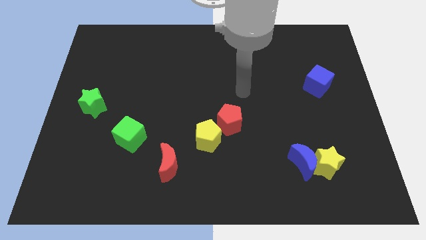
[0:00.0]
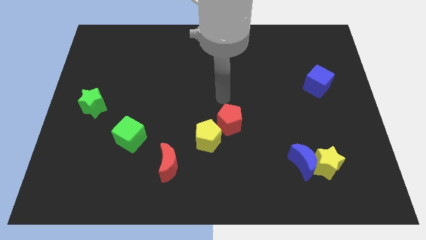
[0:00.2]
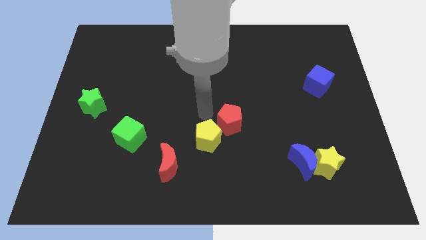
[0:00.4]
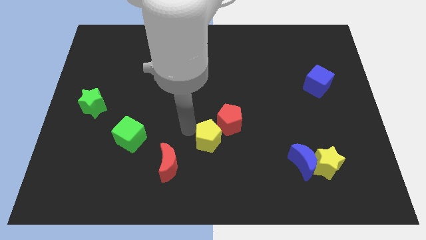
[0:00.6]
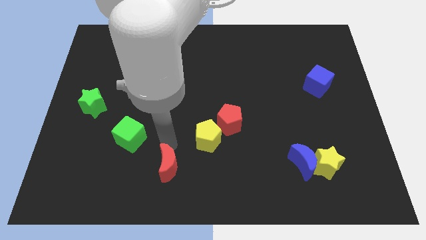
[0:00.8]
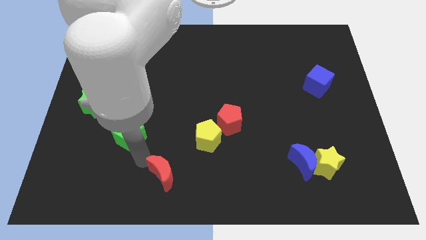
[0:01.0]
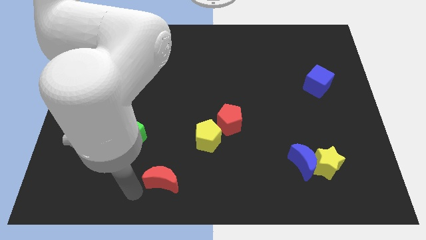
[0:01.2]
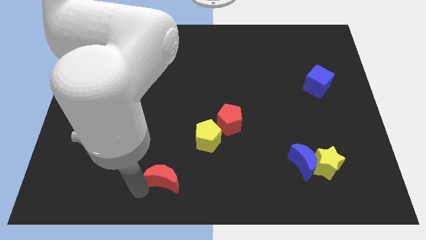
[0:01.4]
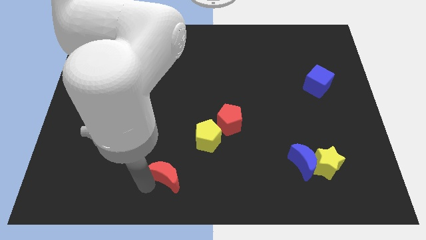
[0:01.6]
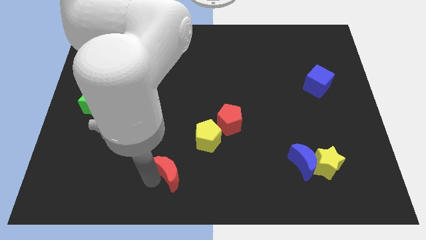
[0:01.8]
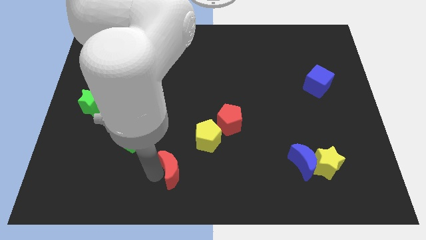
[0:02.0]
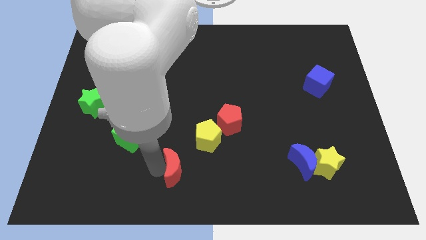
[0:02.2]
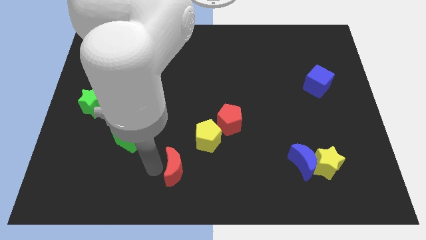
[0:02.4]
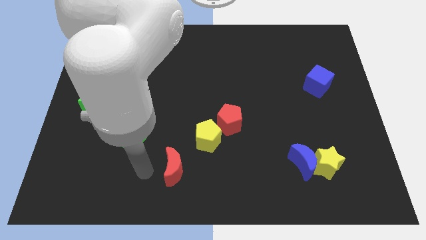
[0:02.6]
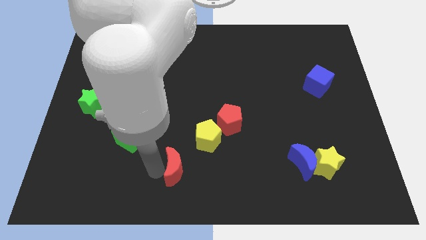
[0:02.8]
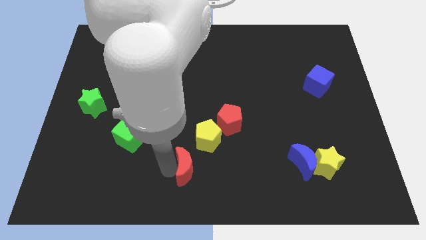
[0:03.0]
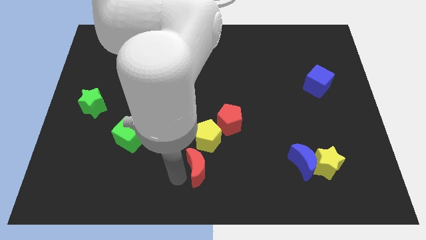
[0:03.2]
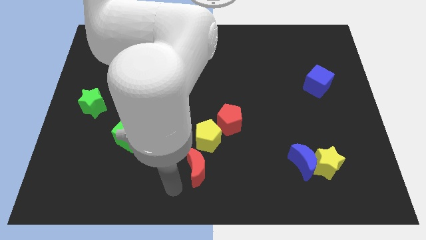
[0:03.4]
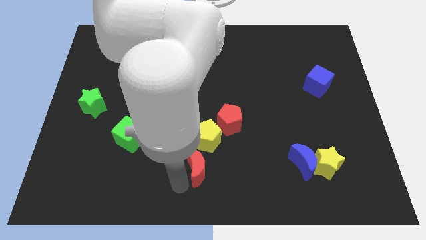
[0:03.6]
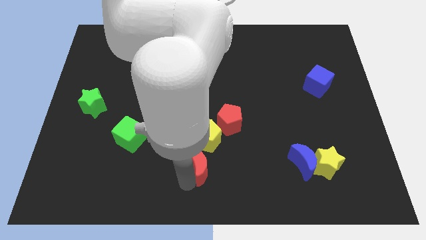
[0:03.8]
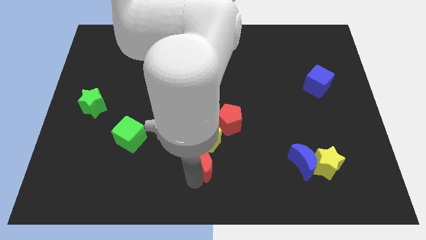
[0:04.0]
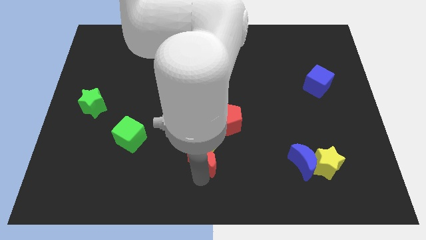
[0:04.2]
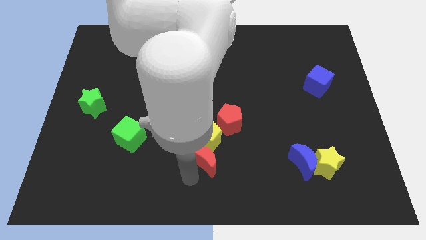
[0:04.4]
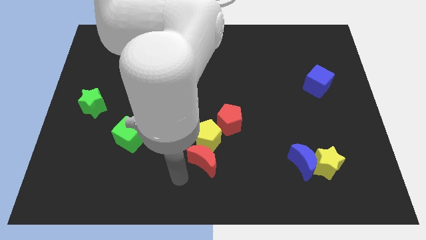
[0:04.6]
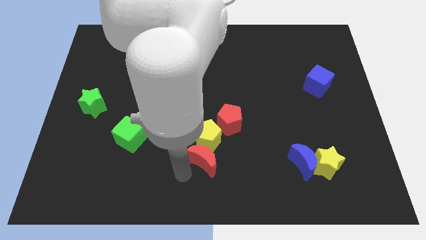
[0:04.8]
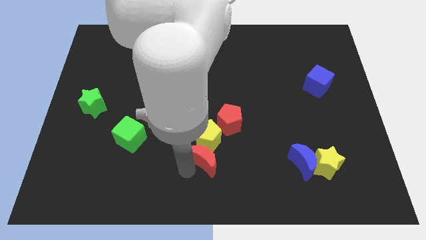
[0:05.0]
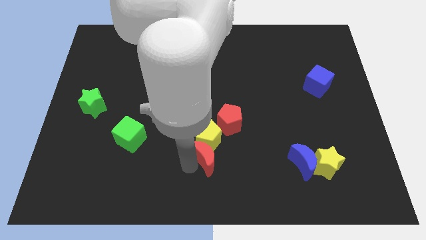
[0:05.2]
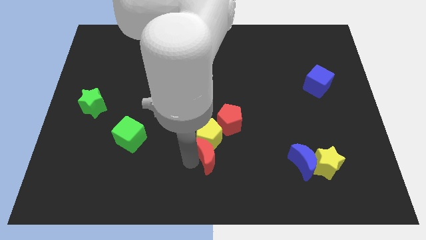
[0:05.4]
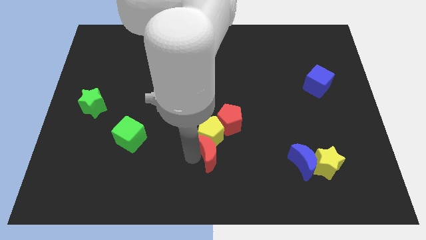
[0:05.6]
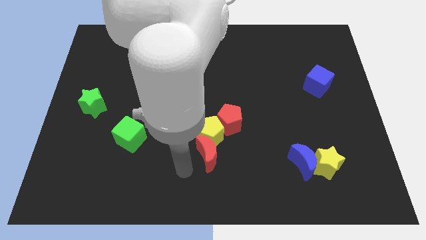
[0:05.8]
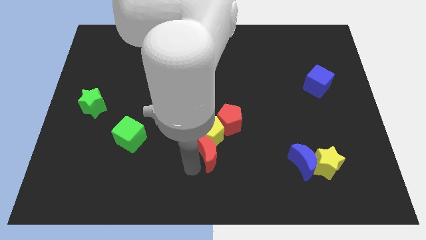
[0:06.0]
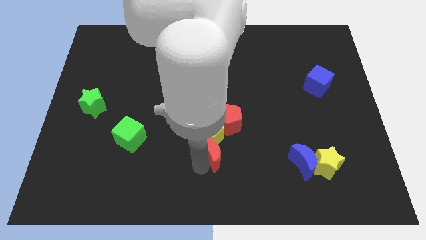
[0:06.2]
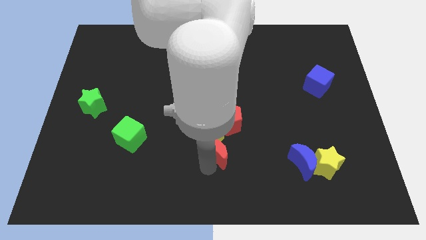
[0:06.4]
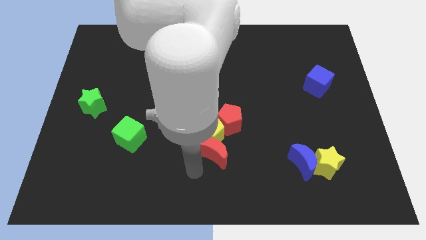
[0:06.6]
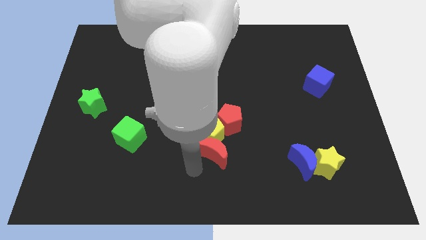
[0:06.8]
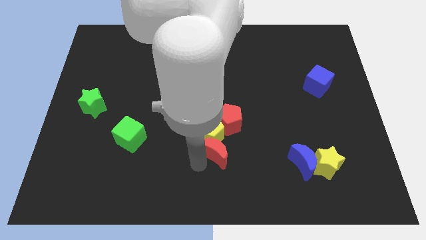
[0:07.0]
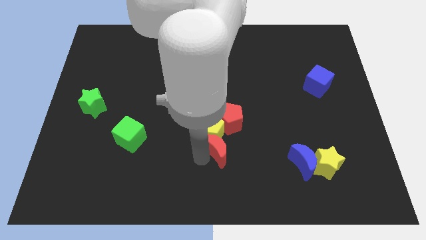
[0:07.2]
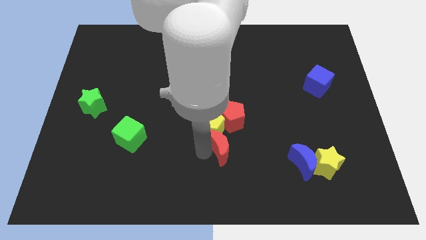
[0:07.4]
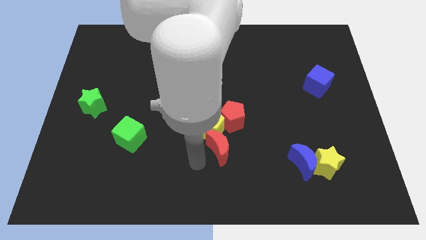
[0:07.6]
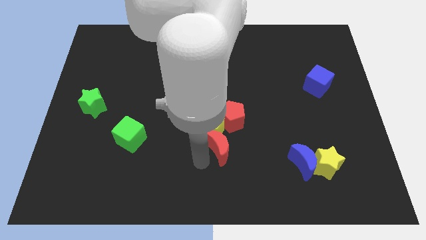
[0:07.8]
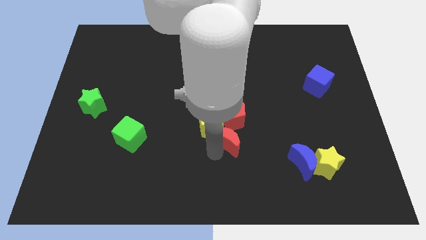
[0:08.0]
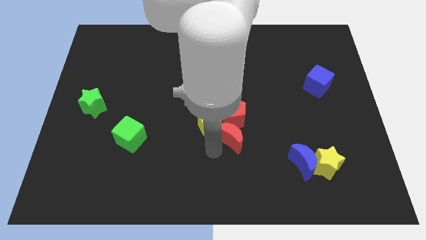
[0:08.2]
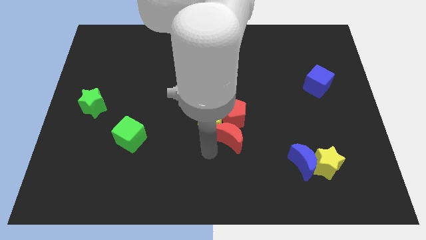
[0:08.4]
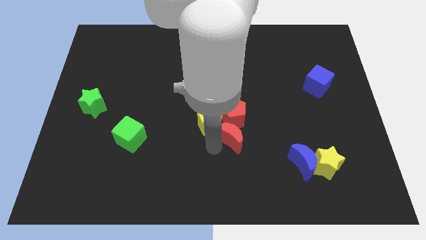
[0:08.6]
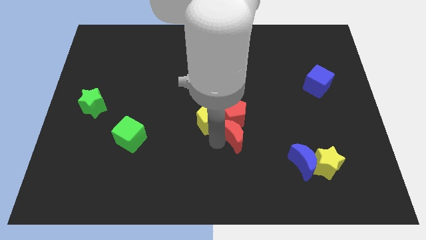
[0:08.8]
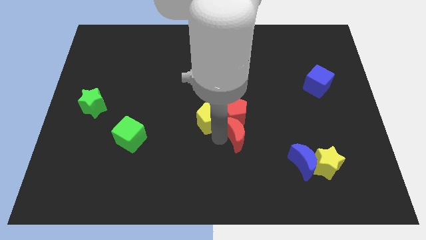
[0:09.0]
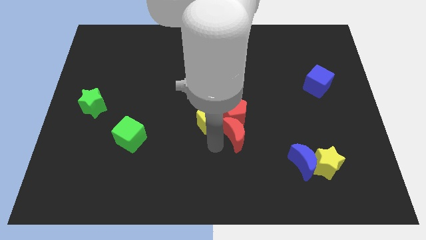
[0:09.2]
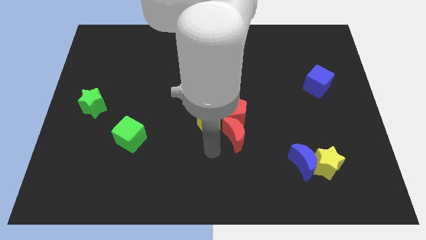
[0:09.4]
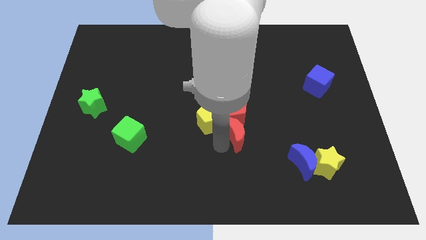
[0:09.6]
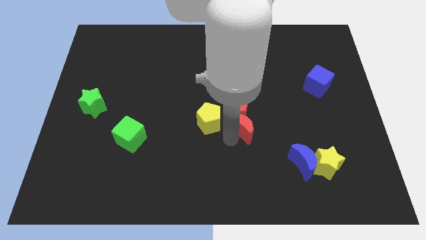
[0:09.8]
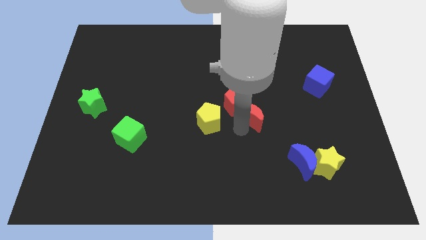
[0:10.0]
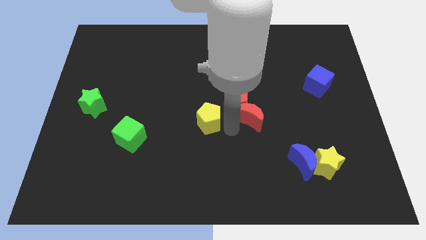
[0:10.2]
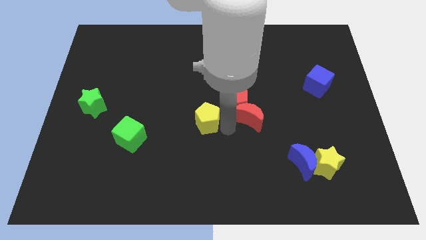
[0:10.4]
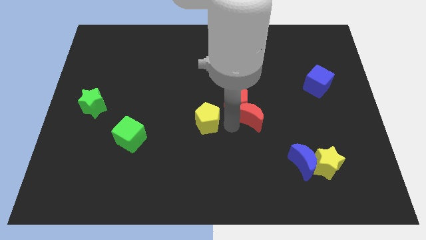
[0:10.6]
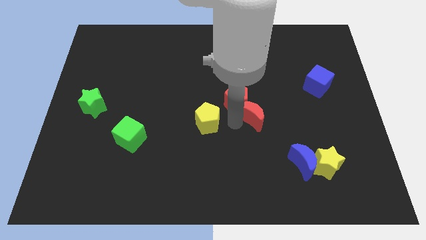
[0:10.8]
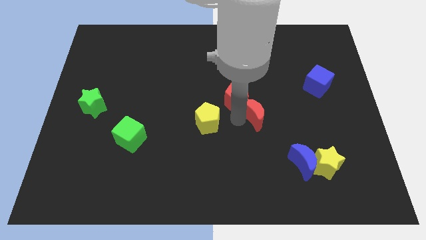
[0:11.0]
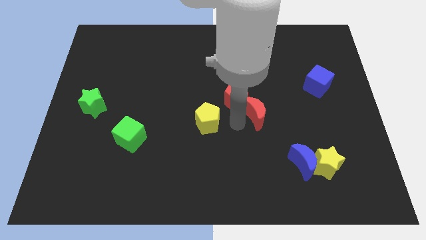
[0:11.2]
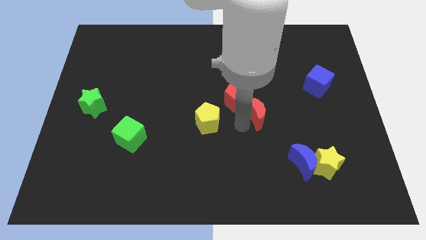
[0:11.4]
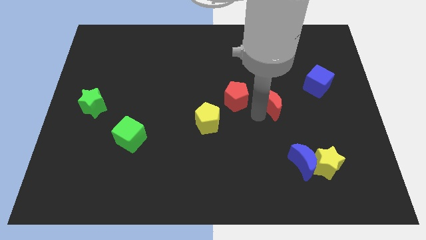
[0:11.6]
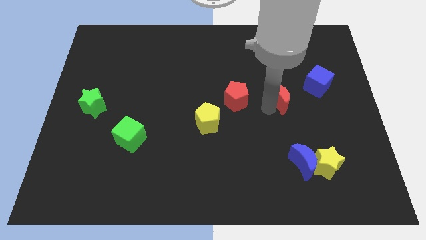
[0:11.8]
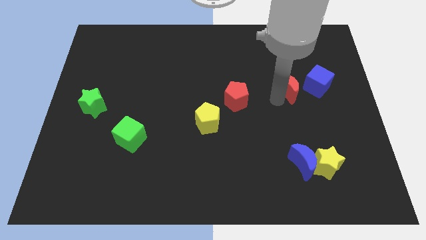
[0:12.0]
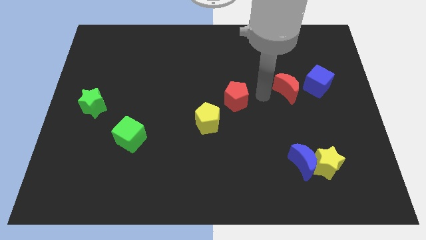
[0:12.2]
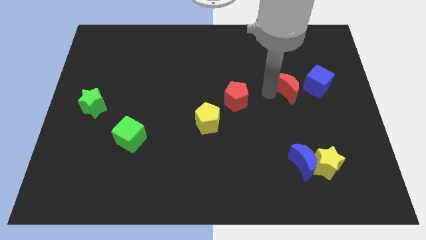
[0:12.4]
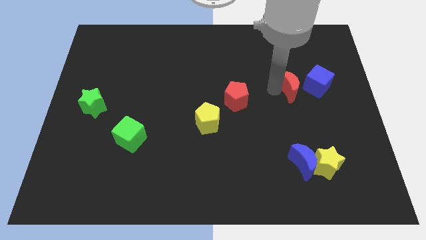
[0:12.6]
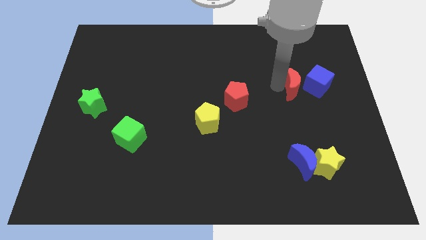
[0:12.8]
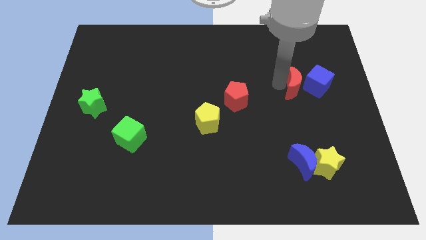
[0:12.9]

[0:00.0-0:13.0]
move the red moon next to the blue cube
